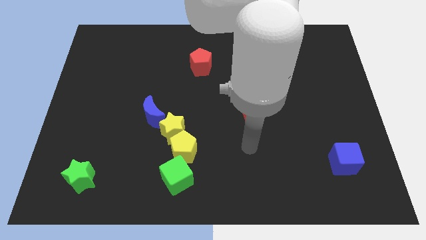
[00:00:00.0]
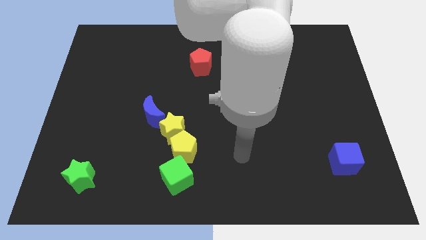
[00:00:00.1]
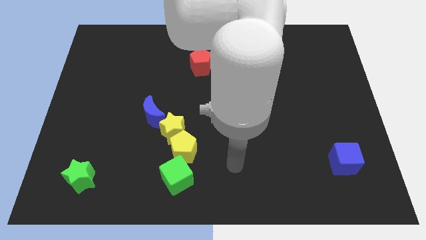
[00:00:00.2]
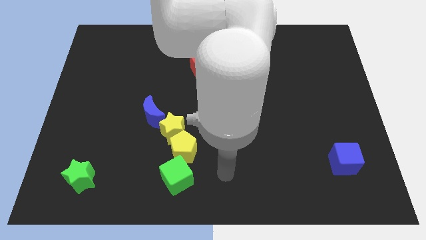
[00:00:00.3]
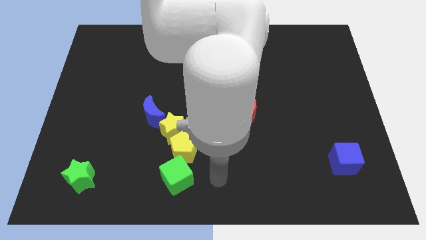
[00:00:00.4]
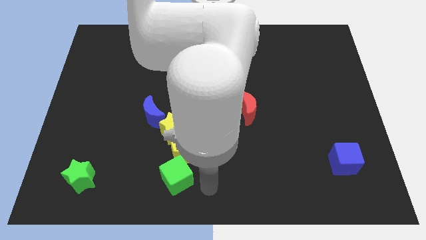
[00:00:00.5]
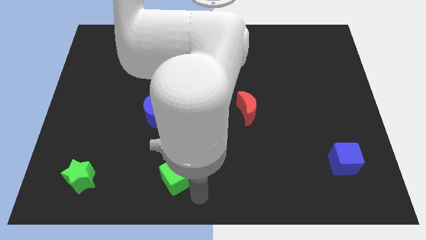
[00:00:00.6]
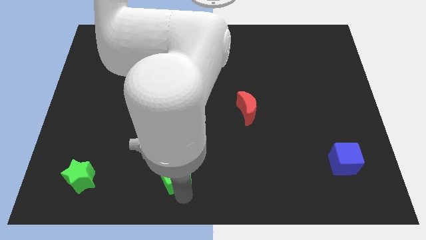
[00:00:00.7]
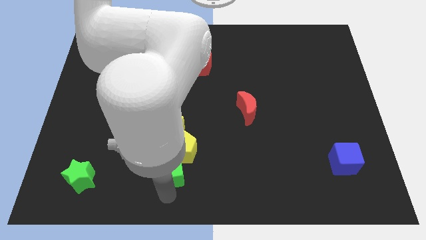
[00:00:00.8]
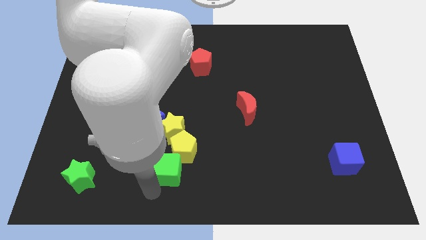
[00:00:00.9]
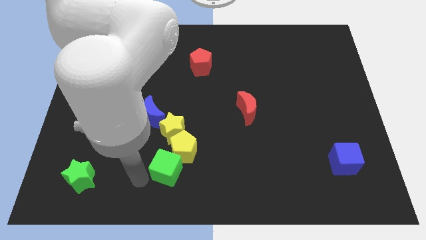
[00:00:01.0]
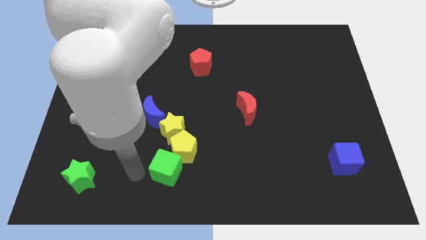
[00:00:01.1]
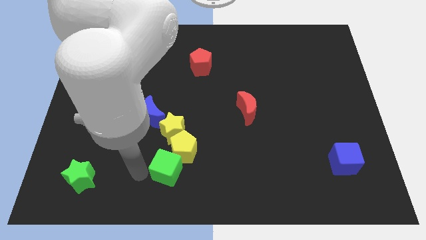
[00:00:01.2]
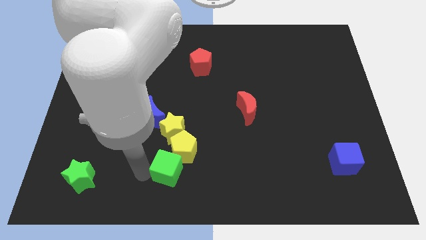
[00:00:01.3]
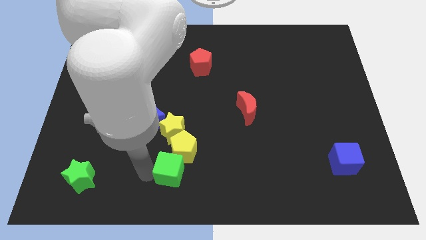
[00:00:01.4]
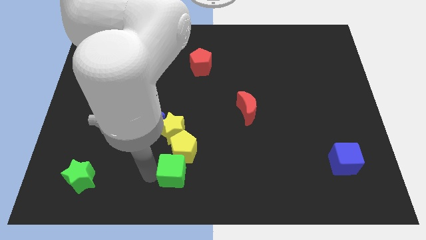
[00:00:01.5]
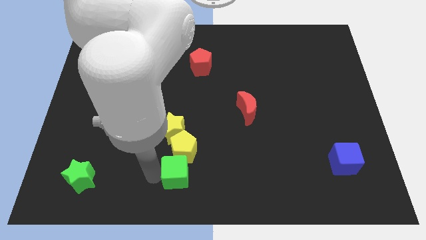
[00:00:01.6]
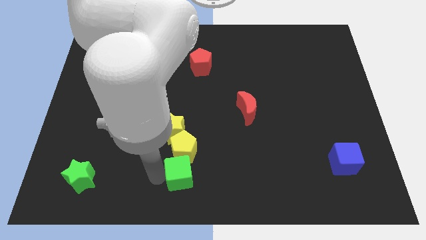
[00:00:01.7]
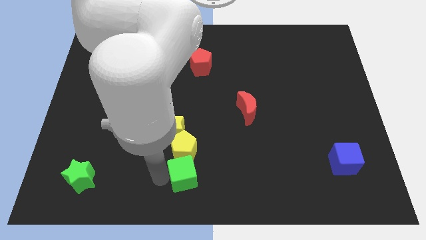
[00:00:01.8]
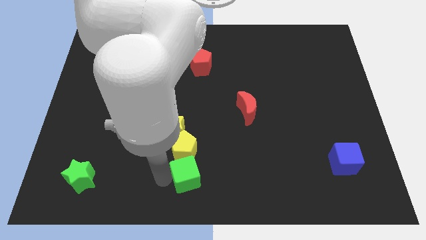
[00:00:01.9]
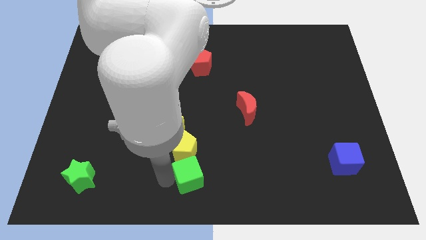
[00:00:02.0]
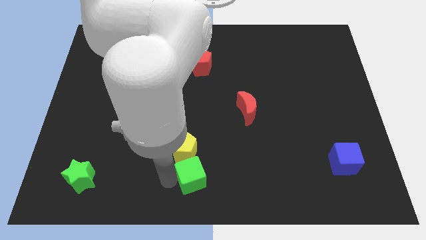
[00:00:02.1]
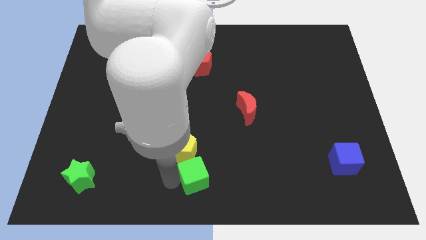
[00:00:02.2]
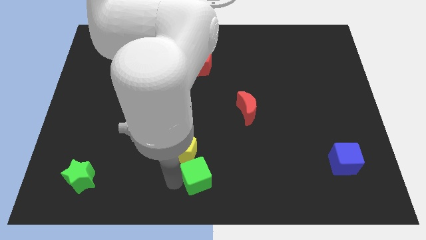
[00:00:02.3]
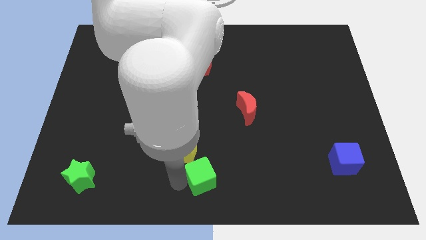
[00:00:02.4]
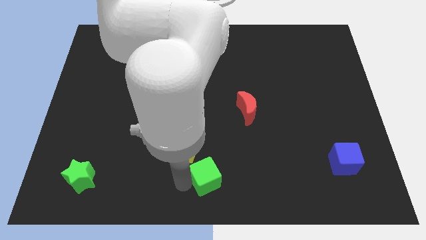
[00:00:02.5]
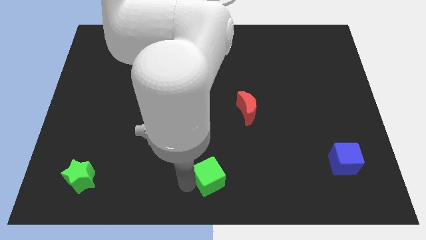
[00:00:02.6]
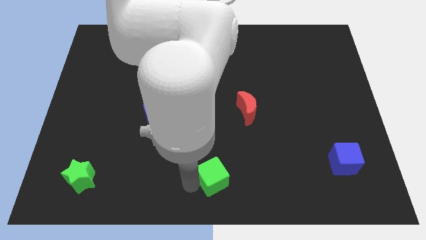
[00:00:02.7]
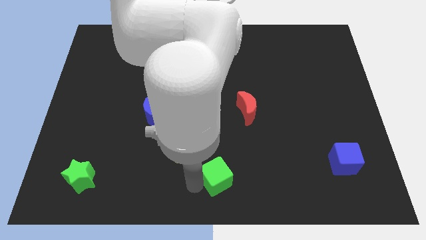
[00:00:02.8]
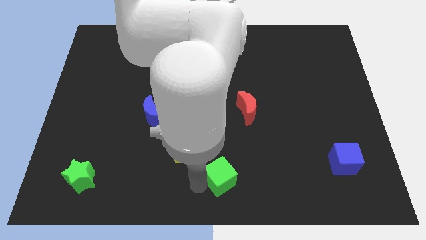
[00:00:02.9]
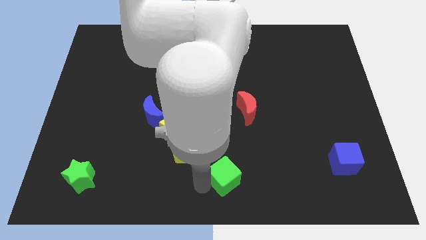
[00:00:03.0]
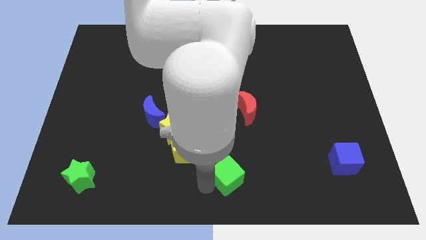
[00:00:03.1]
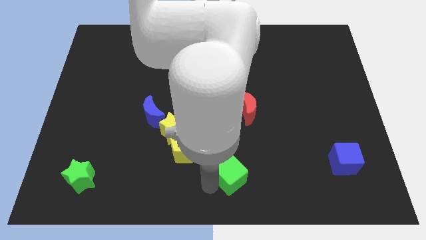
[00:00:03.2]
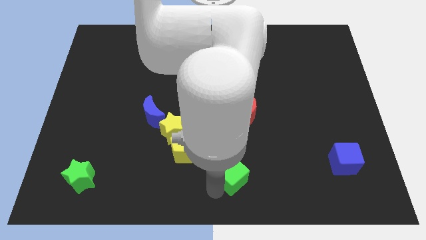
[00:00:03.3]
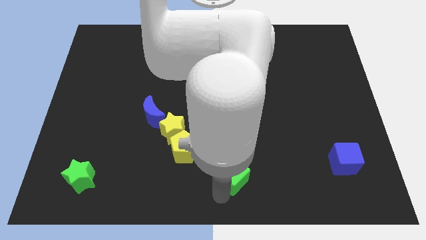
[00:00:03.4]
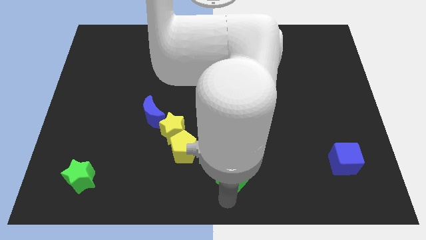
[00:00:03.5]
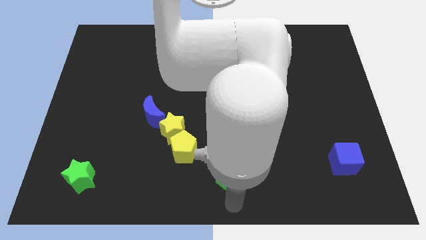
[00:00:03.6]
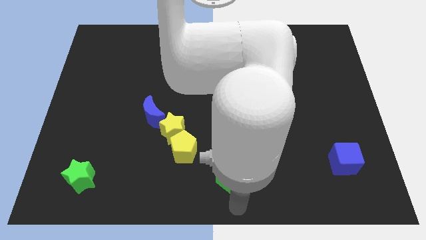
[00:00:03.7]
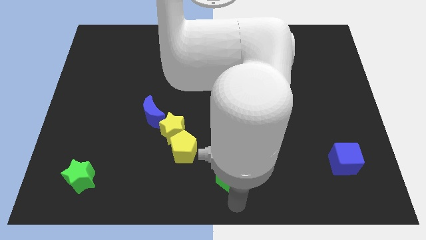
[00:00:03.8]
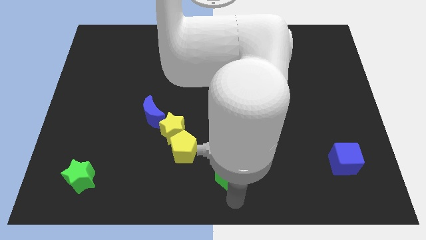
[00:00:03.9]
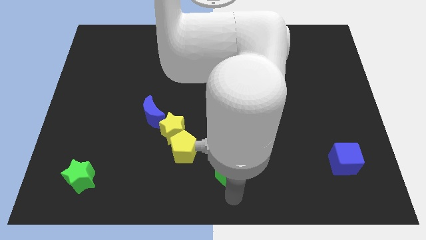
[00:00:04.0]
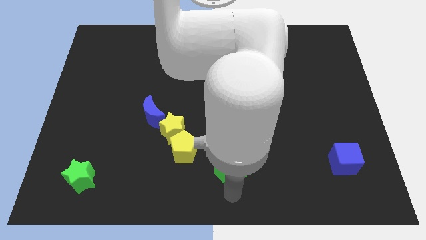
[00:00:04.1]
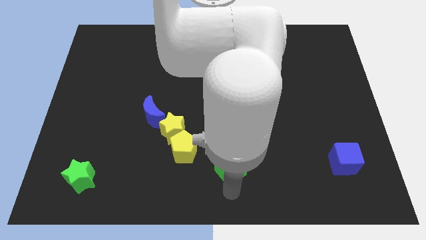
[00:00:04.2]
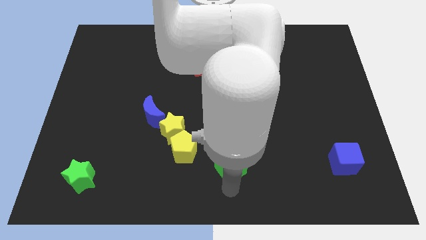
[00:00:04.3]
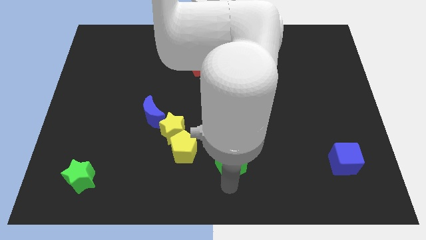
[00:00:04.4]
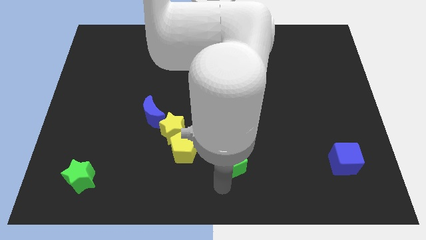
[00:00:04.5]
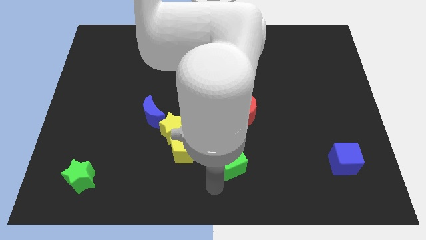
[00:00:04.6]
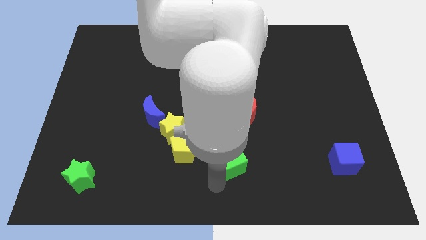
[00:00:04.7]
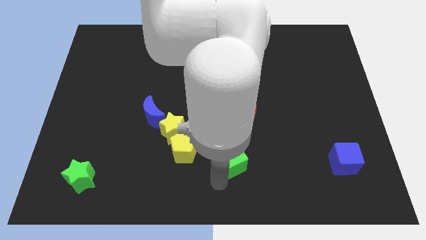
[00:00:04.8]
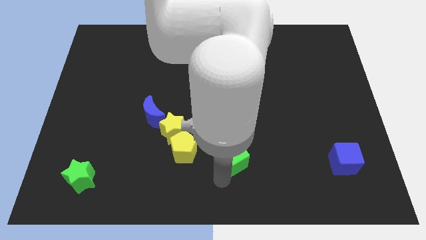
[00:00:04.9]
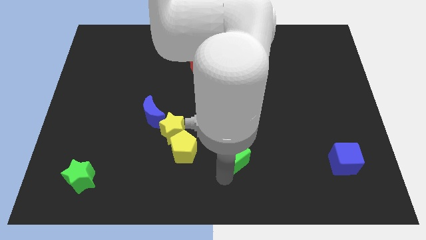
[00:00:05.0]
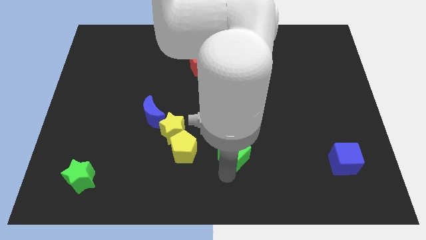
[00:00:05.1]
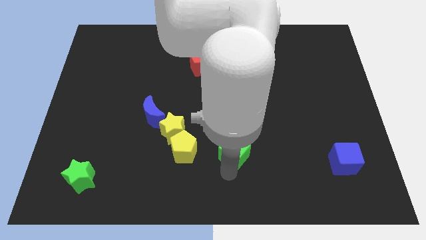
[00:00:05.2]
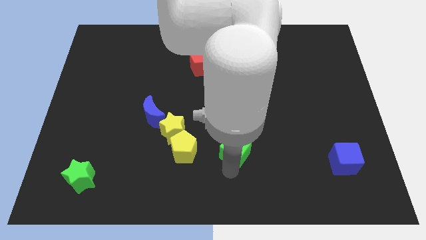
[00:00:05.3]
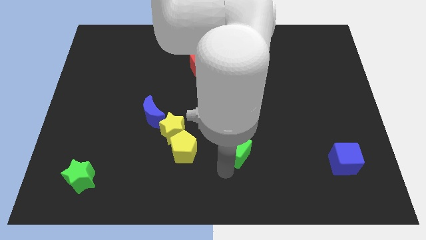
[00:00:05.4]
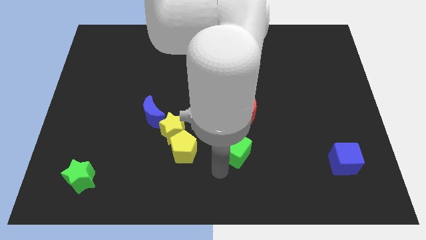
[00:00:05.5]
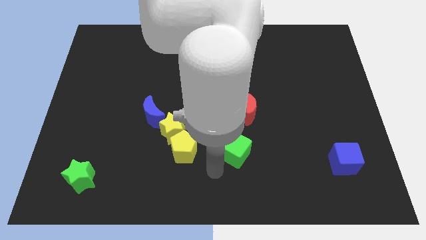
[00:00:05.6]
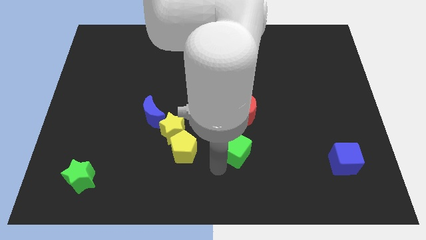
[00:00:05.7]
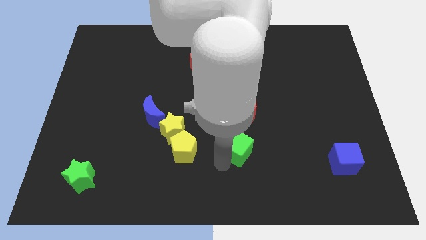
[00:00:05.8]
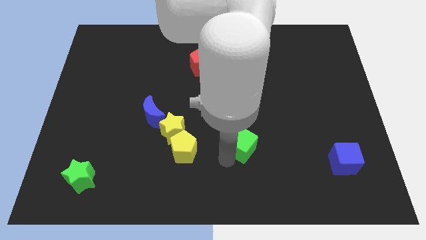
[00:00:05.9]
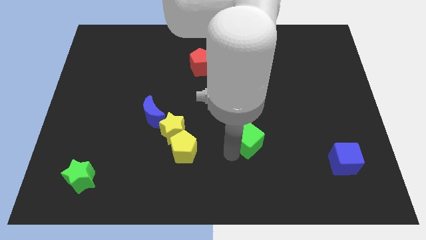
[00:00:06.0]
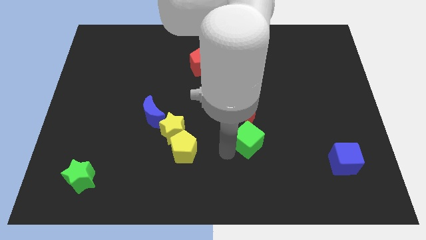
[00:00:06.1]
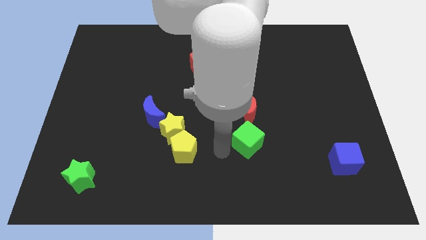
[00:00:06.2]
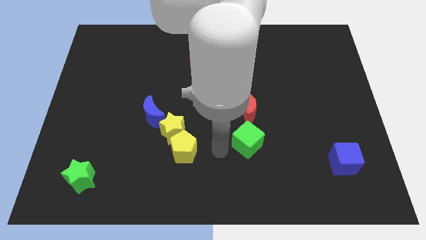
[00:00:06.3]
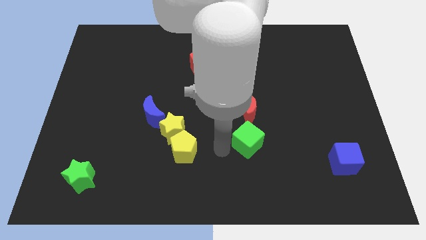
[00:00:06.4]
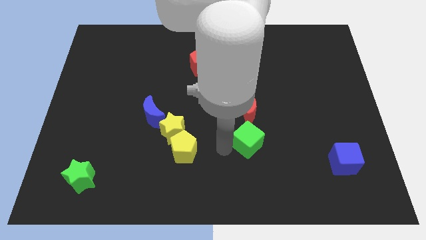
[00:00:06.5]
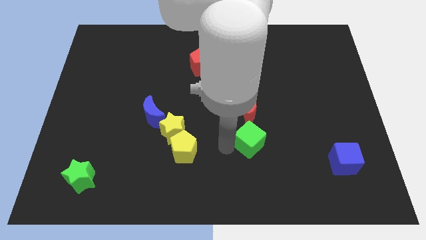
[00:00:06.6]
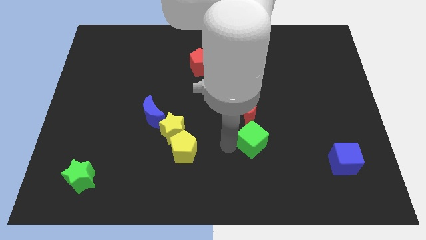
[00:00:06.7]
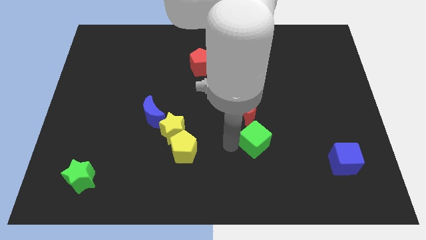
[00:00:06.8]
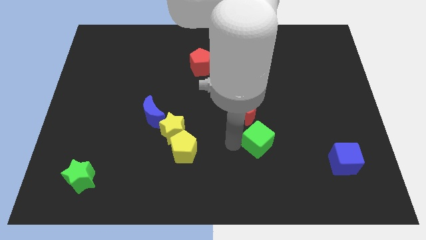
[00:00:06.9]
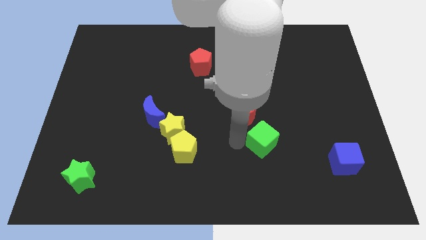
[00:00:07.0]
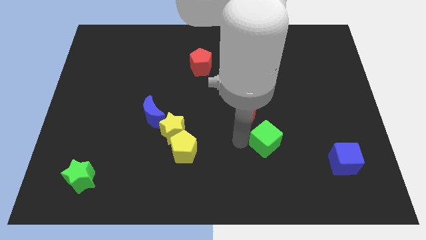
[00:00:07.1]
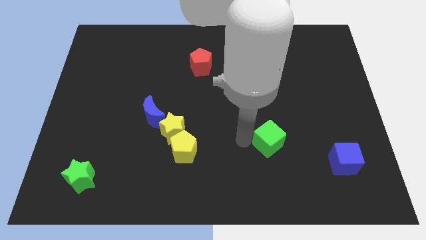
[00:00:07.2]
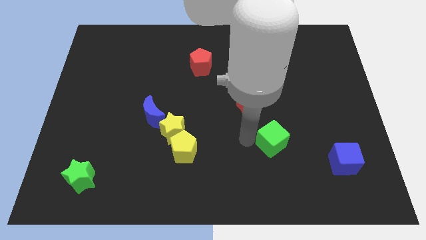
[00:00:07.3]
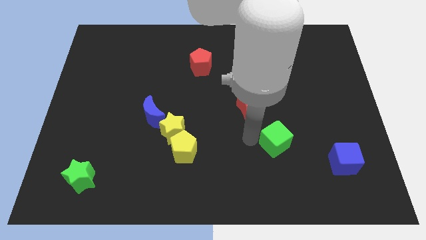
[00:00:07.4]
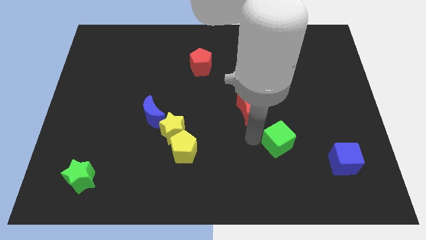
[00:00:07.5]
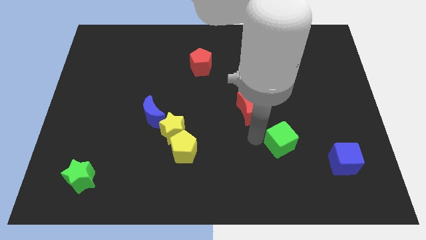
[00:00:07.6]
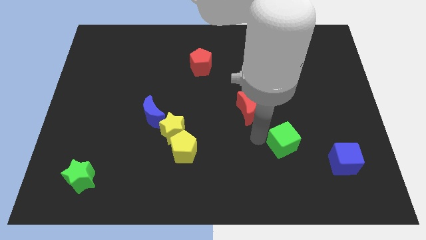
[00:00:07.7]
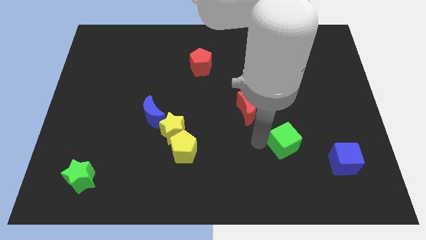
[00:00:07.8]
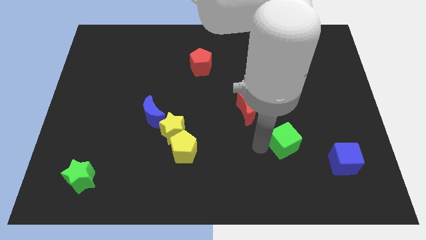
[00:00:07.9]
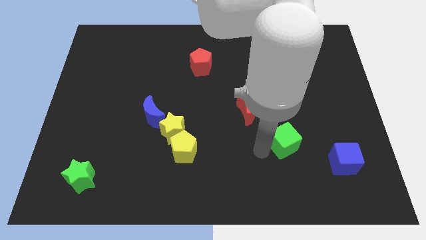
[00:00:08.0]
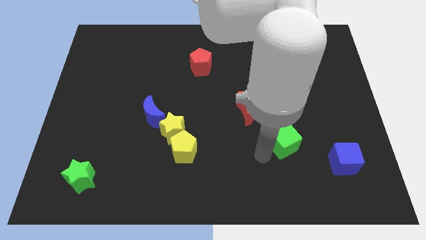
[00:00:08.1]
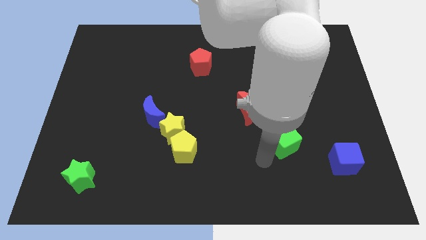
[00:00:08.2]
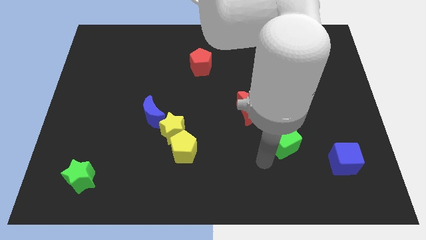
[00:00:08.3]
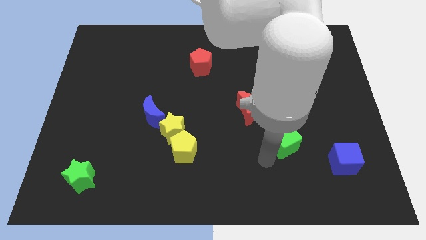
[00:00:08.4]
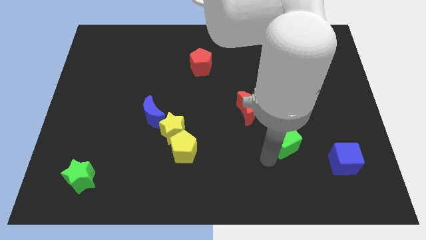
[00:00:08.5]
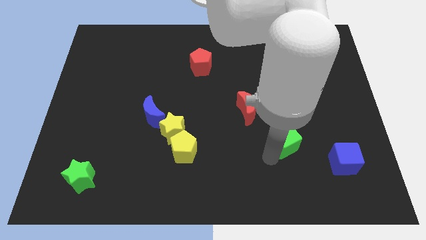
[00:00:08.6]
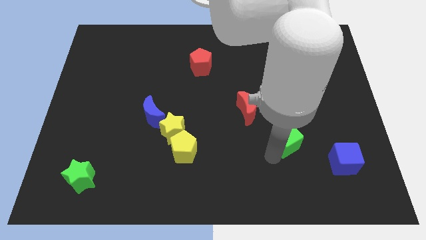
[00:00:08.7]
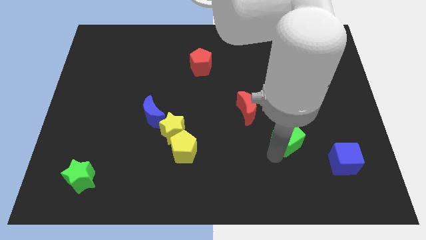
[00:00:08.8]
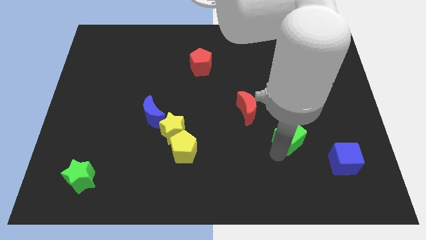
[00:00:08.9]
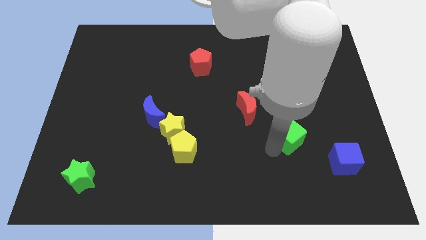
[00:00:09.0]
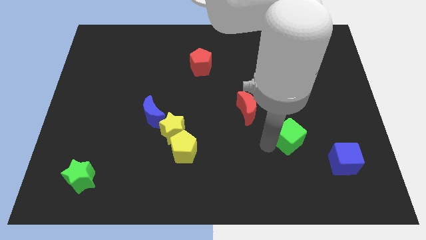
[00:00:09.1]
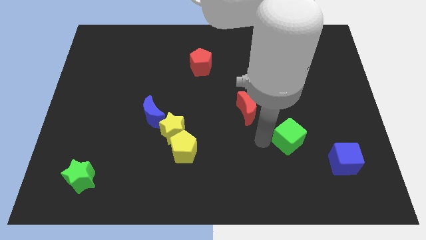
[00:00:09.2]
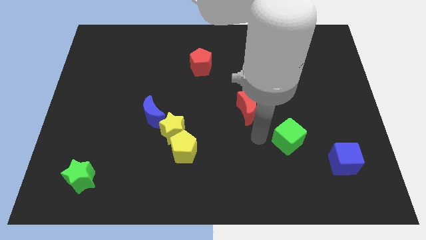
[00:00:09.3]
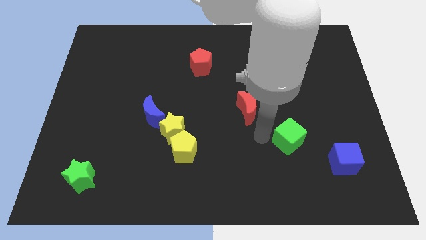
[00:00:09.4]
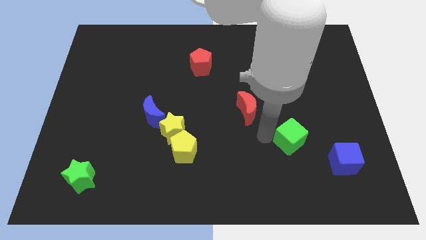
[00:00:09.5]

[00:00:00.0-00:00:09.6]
push the green cube diagonally up and to the left of the blue cube
